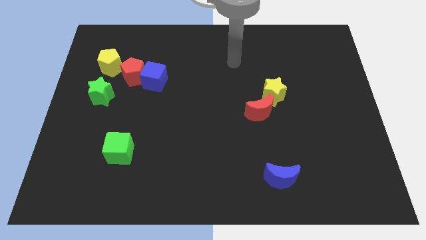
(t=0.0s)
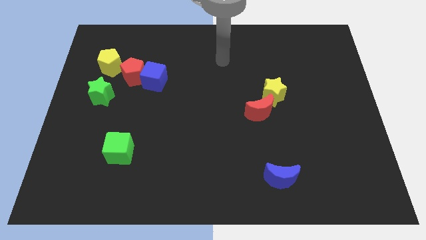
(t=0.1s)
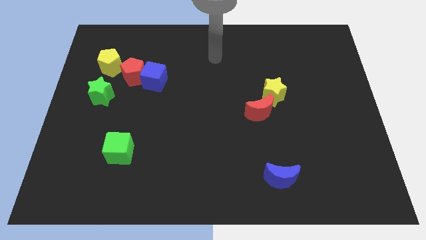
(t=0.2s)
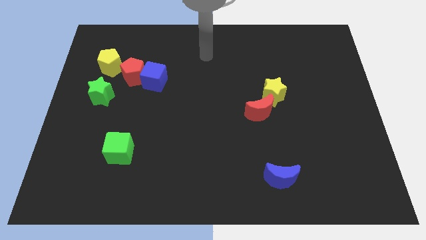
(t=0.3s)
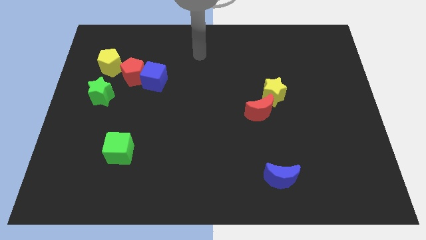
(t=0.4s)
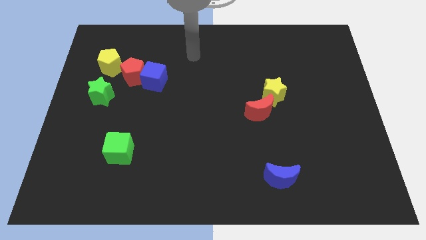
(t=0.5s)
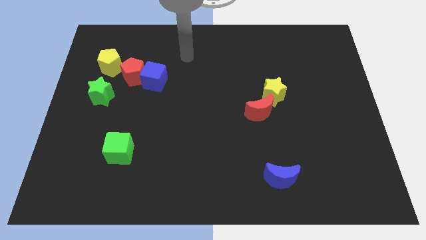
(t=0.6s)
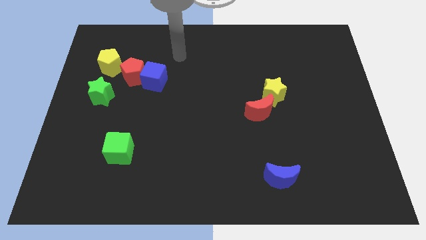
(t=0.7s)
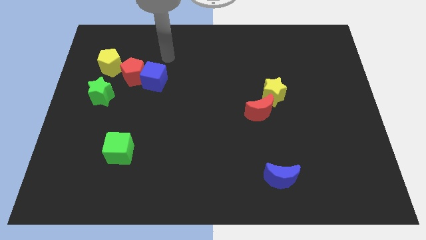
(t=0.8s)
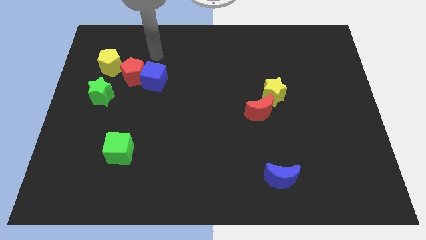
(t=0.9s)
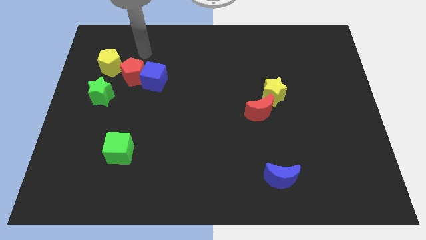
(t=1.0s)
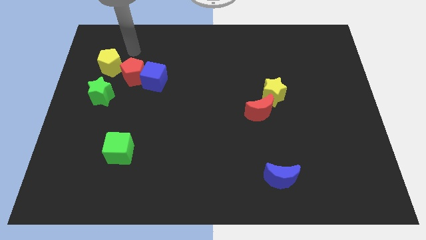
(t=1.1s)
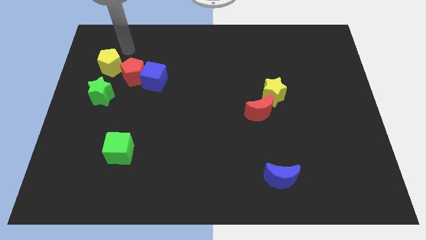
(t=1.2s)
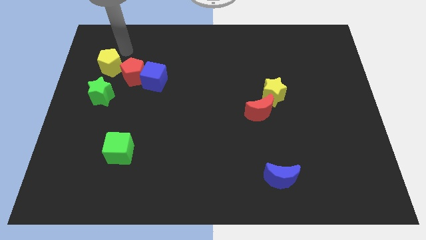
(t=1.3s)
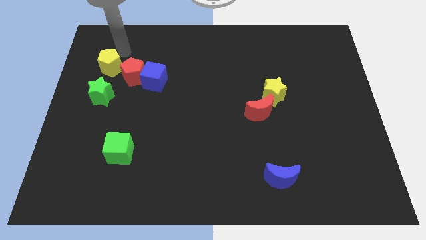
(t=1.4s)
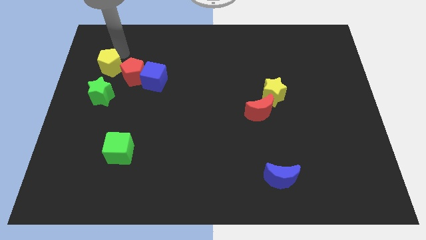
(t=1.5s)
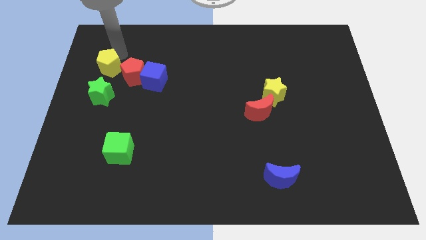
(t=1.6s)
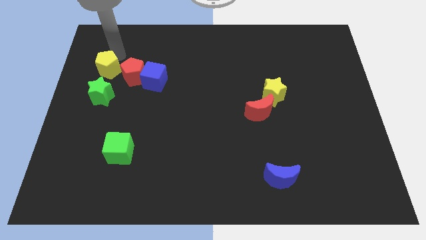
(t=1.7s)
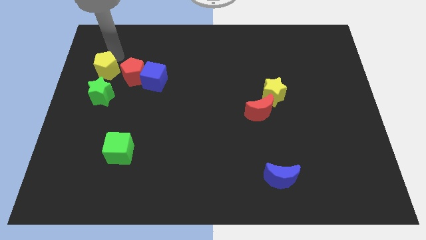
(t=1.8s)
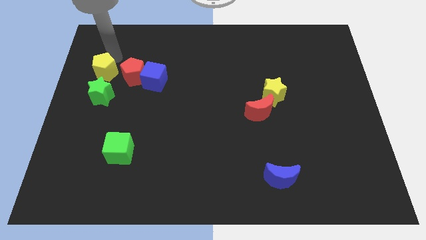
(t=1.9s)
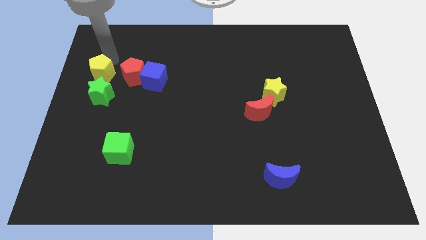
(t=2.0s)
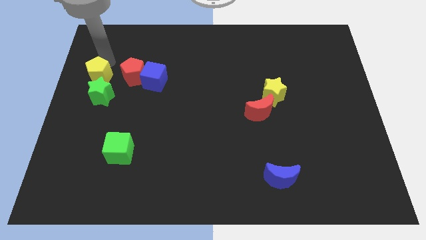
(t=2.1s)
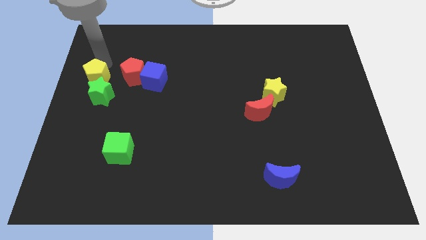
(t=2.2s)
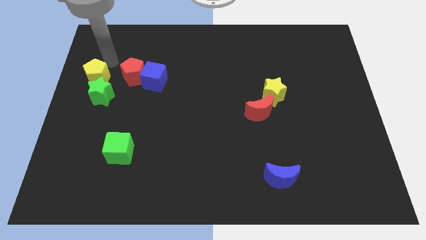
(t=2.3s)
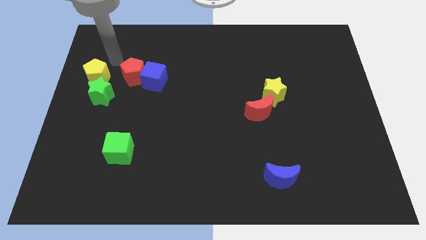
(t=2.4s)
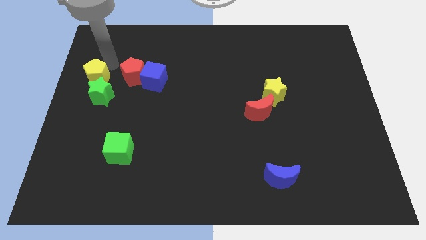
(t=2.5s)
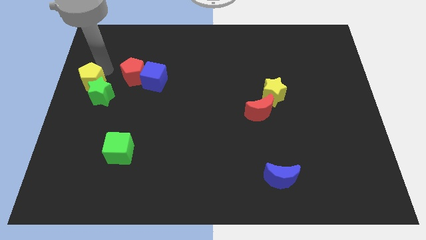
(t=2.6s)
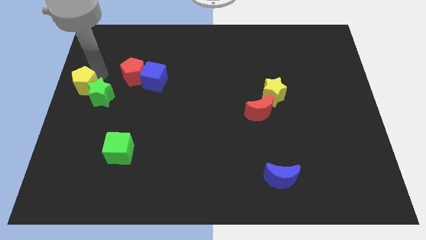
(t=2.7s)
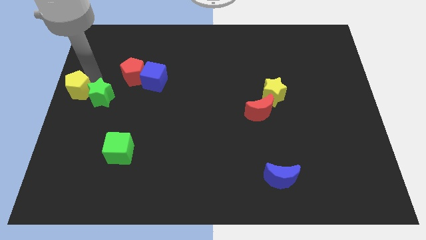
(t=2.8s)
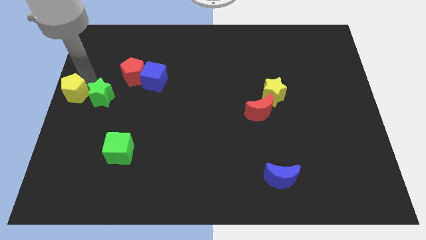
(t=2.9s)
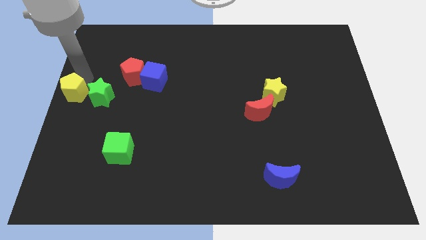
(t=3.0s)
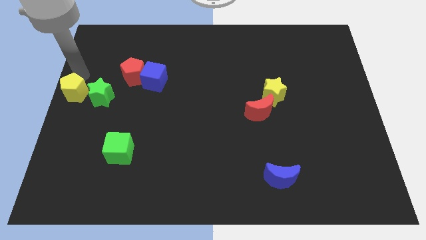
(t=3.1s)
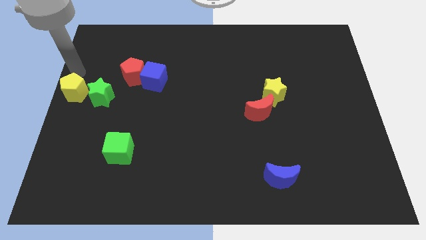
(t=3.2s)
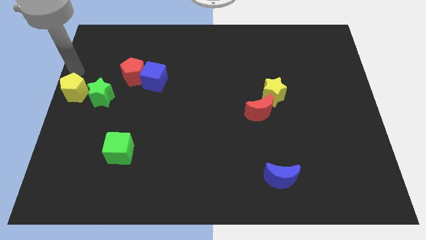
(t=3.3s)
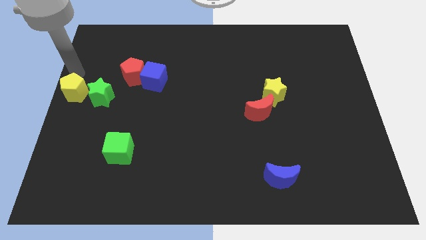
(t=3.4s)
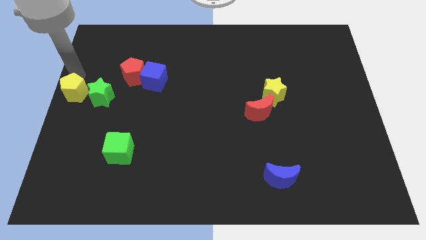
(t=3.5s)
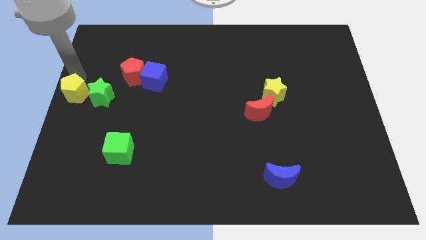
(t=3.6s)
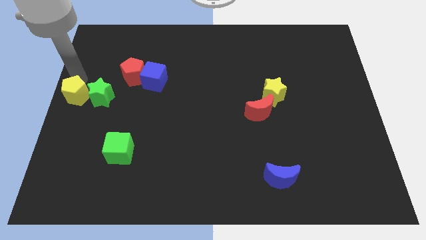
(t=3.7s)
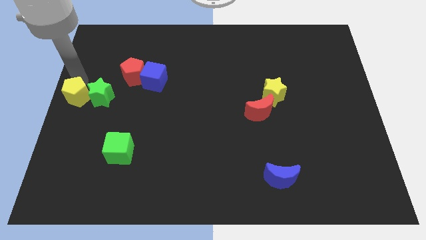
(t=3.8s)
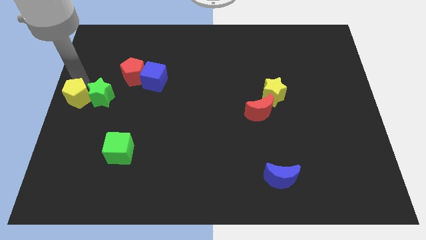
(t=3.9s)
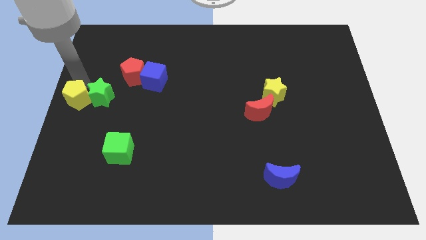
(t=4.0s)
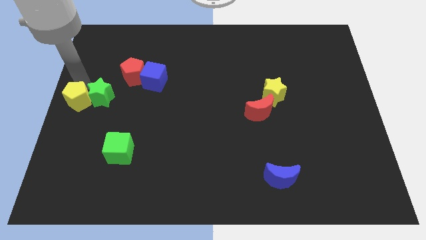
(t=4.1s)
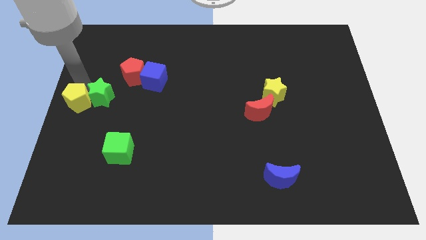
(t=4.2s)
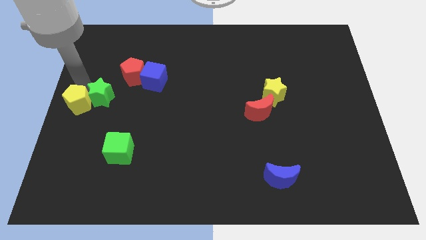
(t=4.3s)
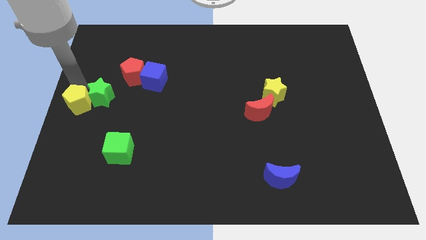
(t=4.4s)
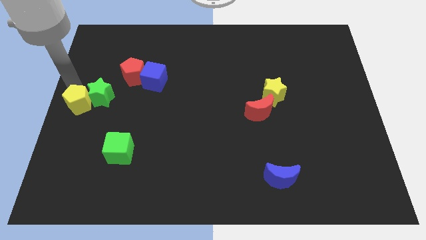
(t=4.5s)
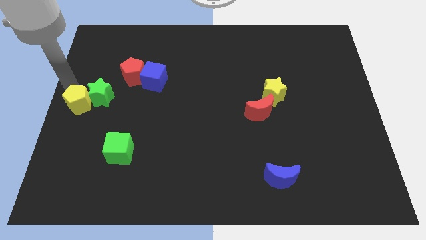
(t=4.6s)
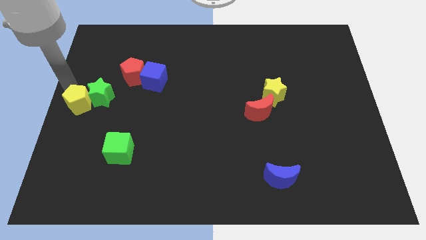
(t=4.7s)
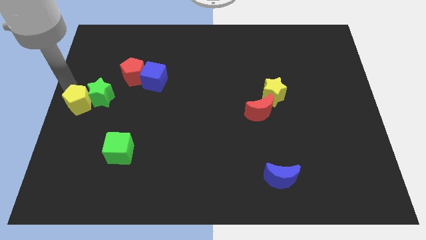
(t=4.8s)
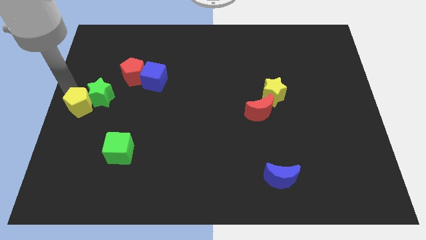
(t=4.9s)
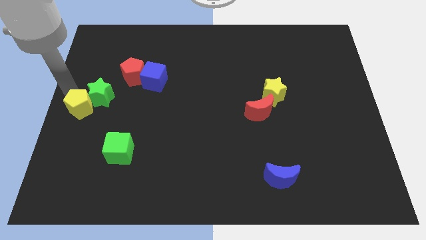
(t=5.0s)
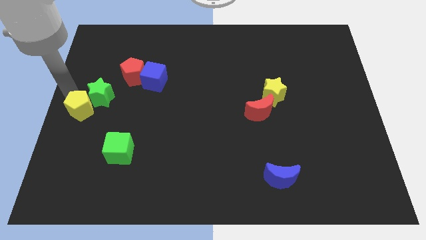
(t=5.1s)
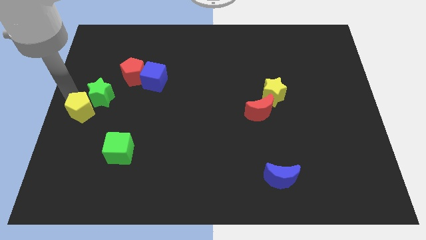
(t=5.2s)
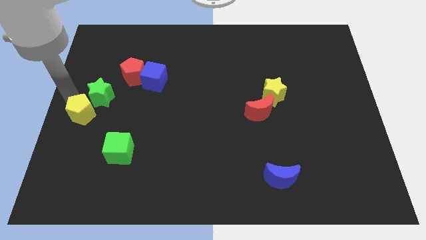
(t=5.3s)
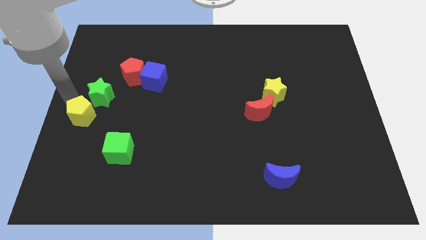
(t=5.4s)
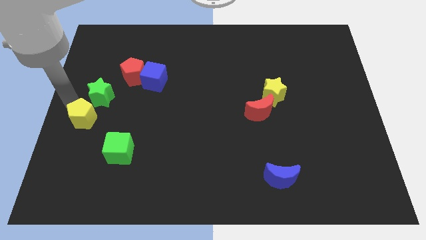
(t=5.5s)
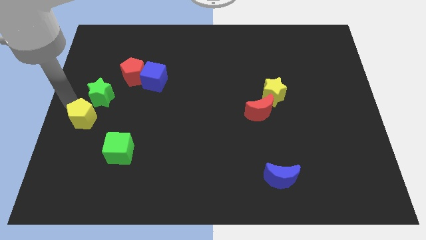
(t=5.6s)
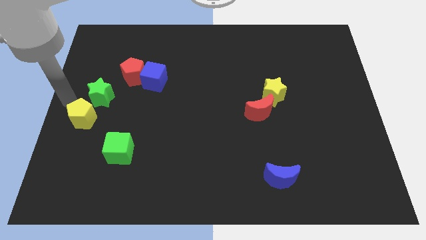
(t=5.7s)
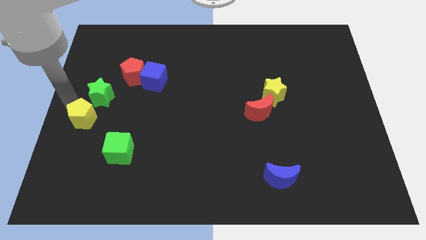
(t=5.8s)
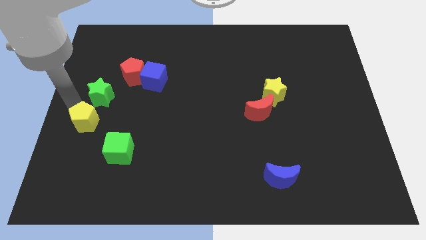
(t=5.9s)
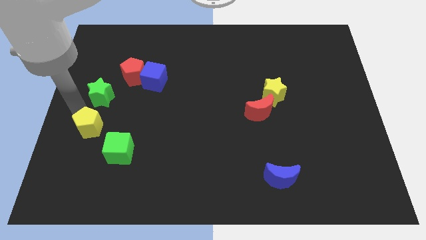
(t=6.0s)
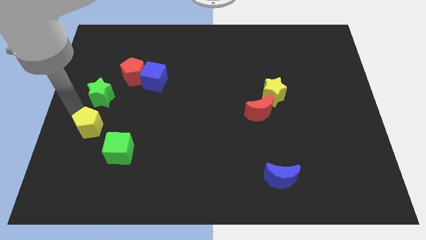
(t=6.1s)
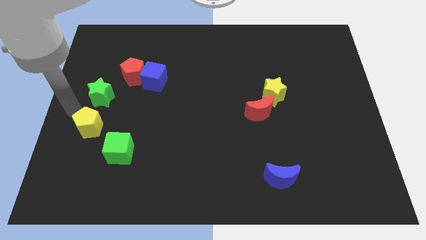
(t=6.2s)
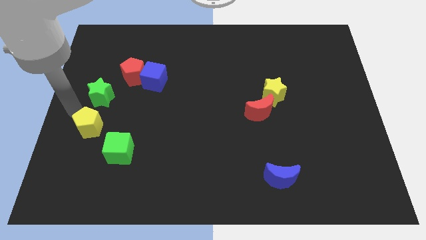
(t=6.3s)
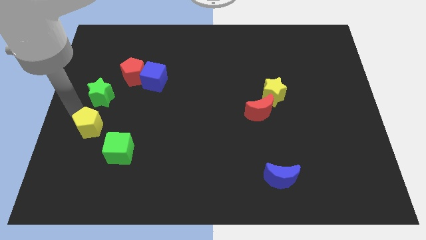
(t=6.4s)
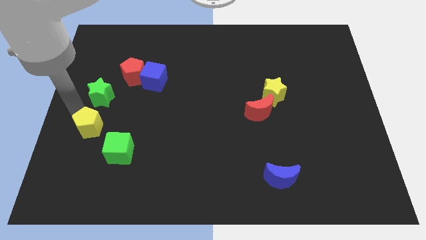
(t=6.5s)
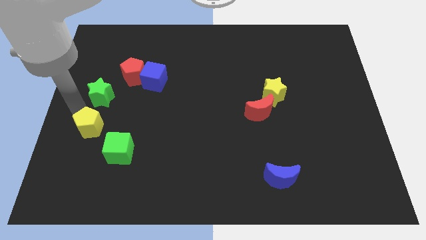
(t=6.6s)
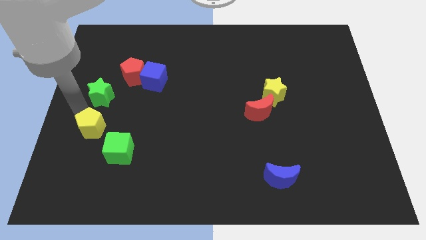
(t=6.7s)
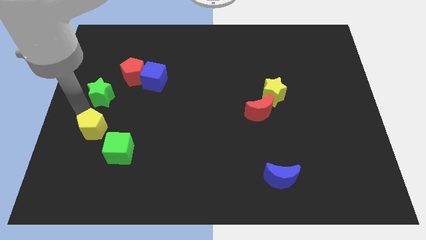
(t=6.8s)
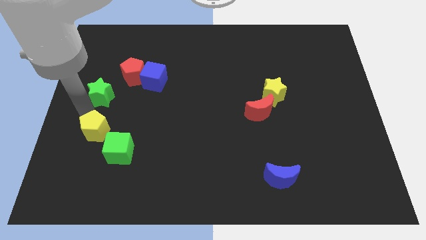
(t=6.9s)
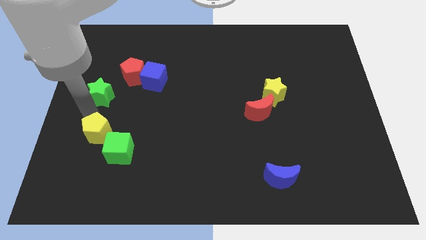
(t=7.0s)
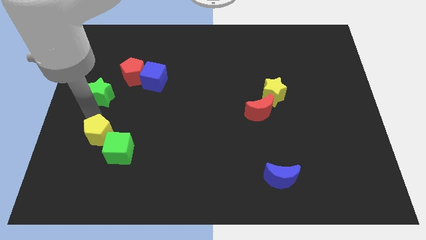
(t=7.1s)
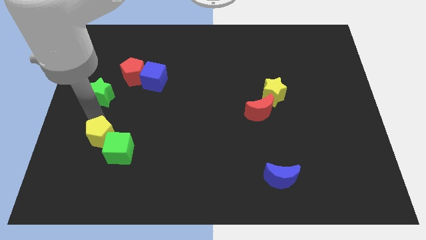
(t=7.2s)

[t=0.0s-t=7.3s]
move the yellow pentagon close to the green cube

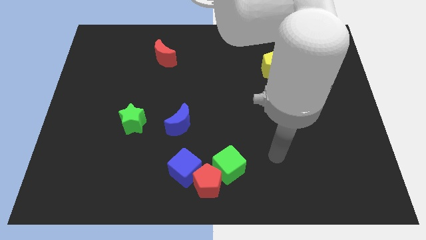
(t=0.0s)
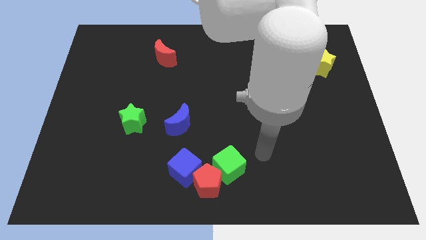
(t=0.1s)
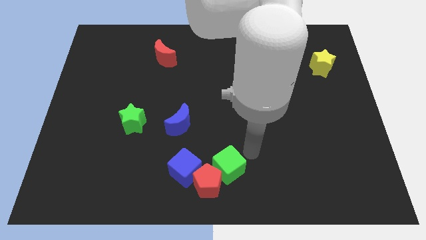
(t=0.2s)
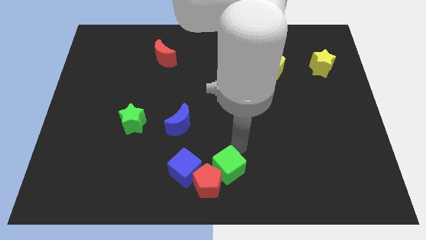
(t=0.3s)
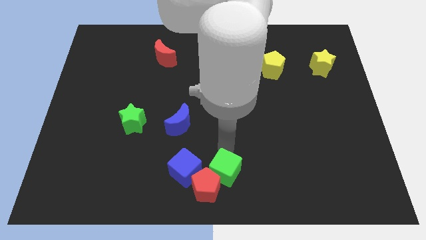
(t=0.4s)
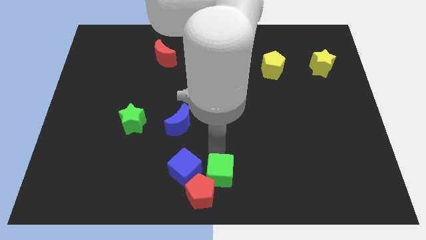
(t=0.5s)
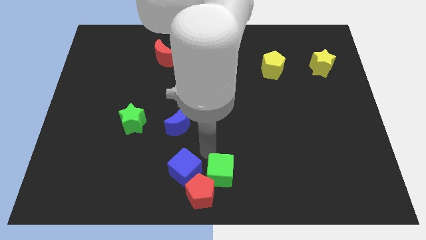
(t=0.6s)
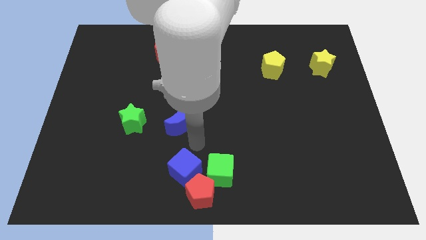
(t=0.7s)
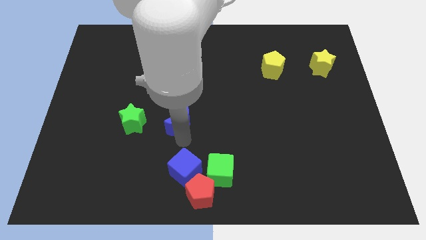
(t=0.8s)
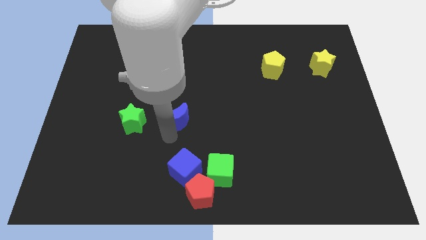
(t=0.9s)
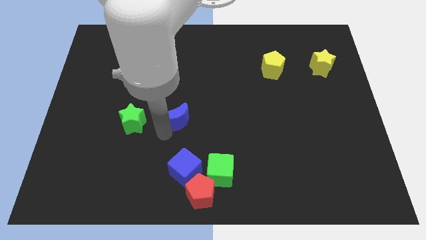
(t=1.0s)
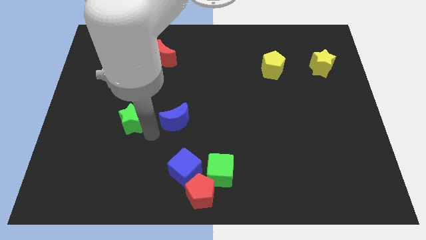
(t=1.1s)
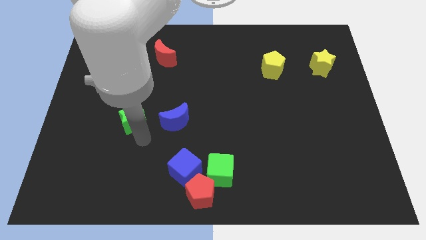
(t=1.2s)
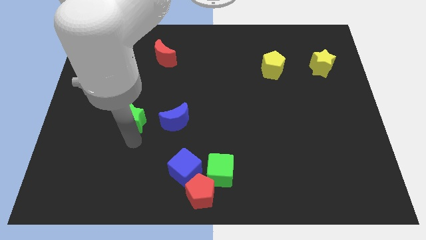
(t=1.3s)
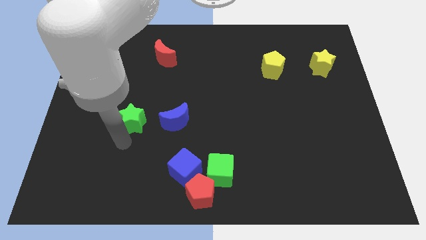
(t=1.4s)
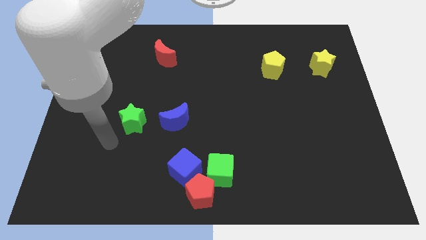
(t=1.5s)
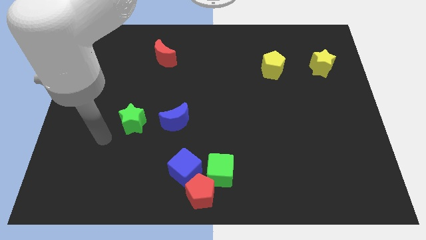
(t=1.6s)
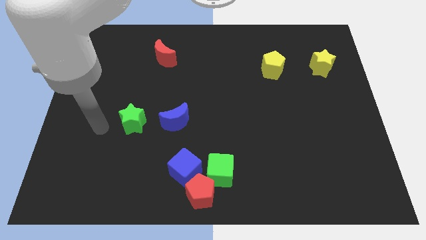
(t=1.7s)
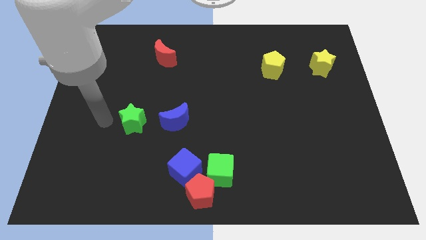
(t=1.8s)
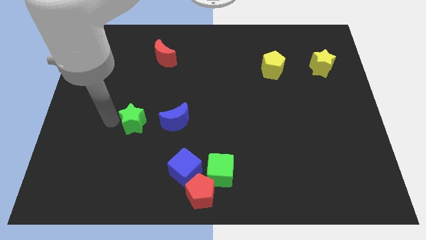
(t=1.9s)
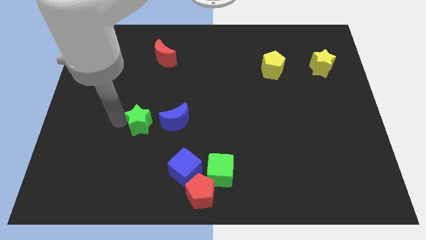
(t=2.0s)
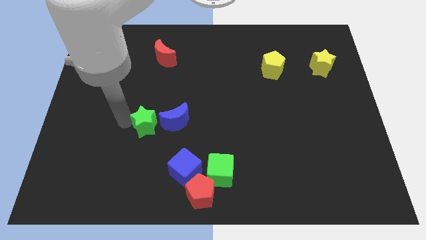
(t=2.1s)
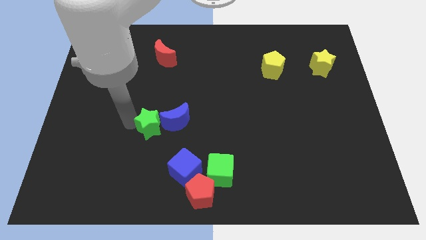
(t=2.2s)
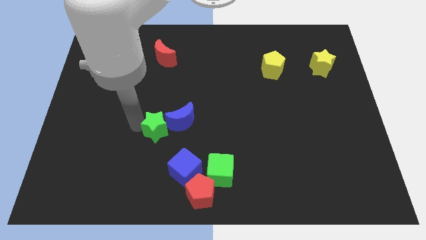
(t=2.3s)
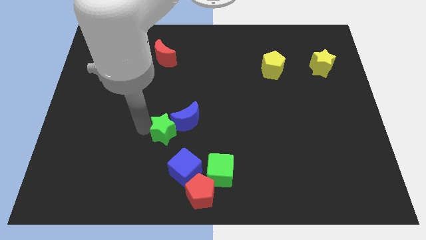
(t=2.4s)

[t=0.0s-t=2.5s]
put the green star towards the blue moon
